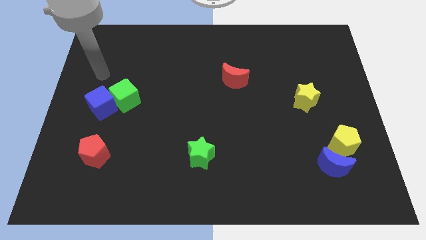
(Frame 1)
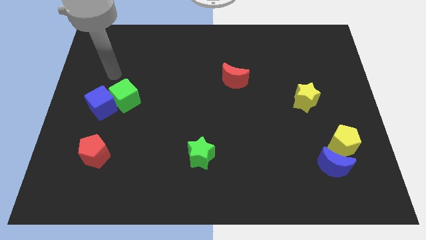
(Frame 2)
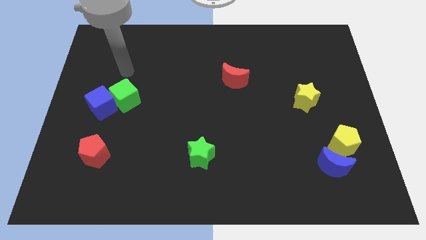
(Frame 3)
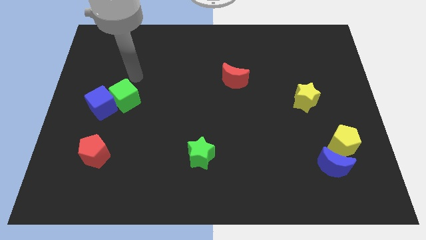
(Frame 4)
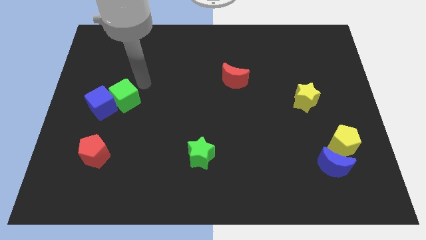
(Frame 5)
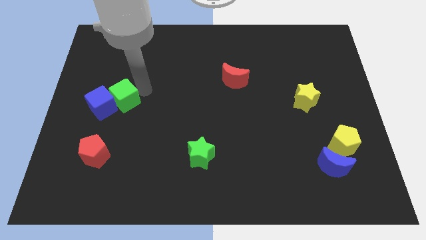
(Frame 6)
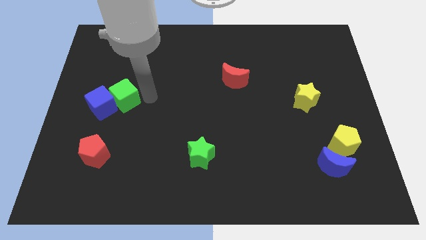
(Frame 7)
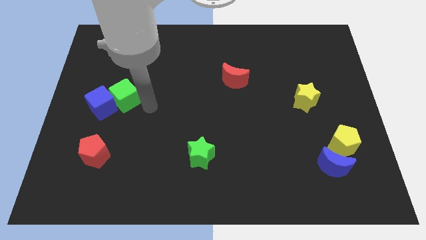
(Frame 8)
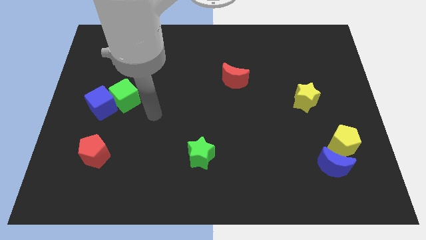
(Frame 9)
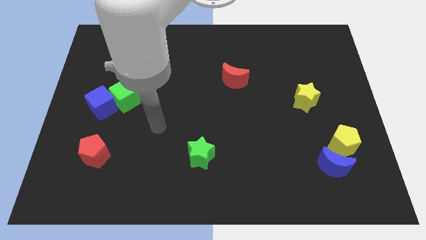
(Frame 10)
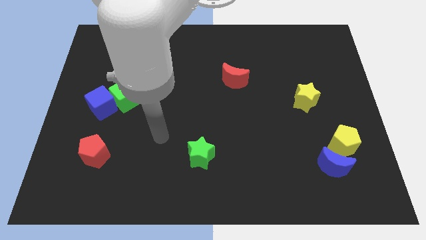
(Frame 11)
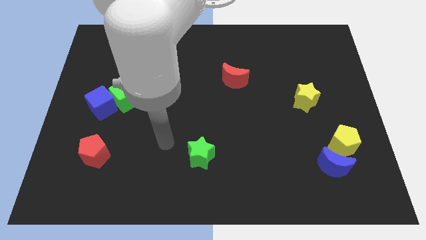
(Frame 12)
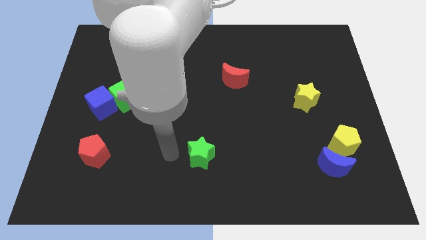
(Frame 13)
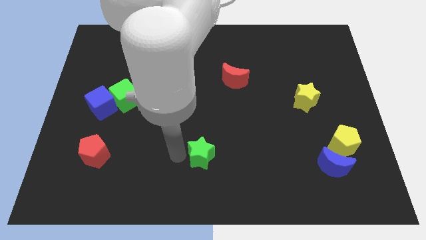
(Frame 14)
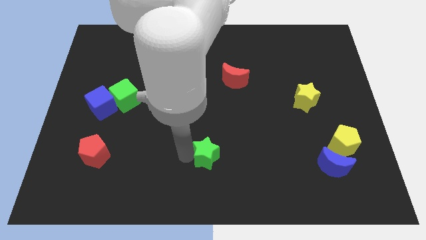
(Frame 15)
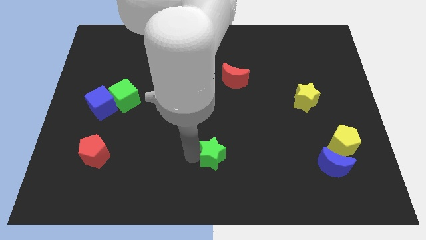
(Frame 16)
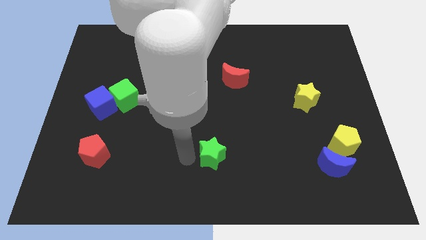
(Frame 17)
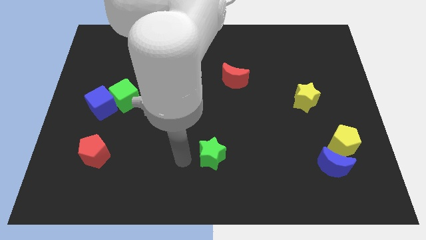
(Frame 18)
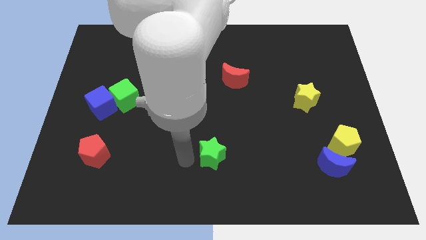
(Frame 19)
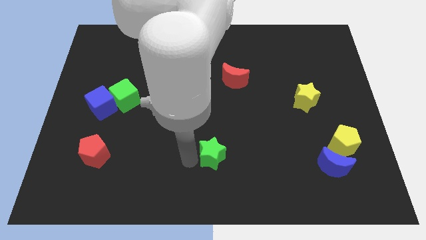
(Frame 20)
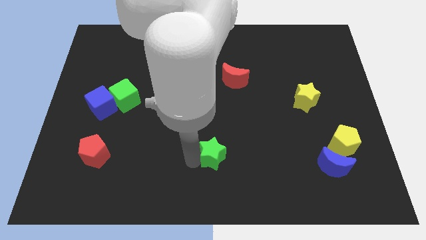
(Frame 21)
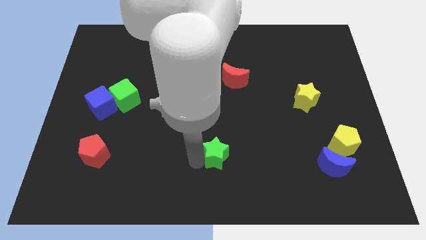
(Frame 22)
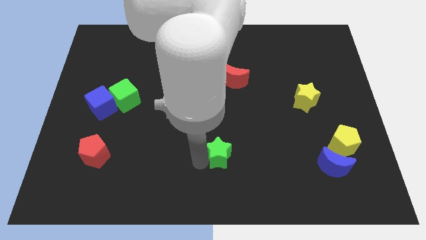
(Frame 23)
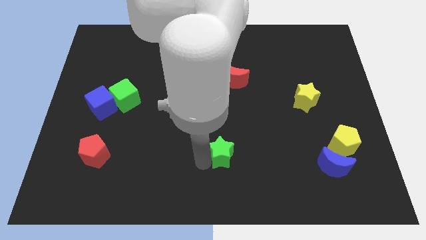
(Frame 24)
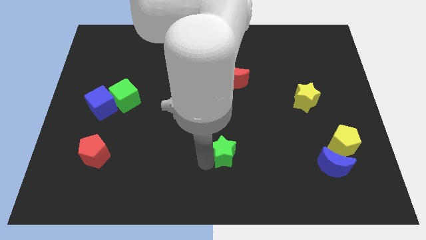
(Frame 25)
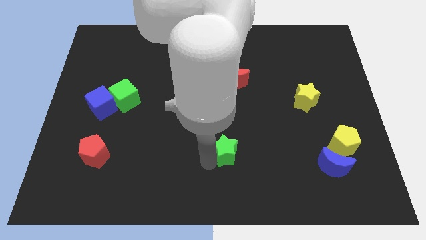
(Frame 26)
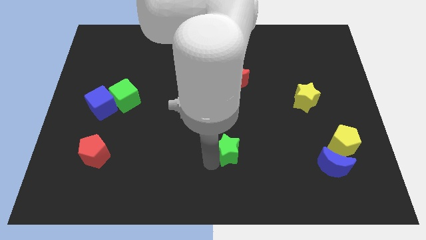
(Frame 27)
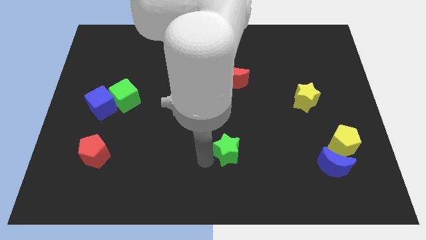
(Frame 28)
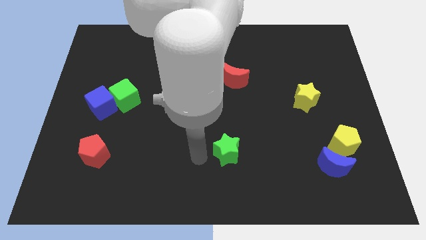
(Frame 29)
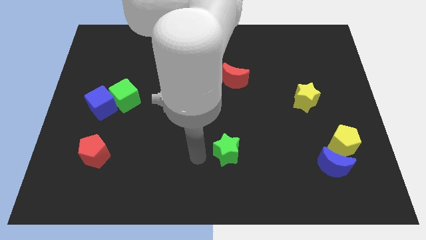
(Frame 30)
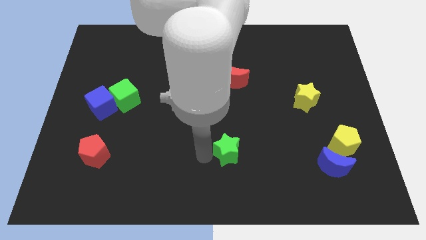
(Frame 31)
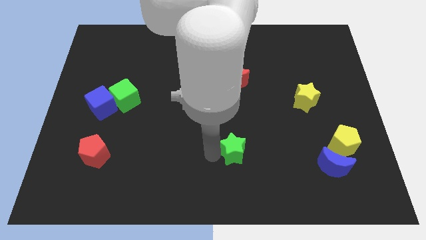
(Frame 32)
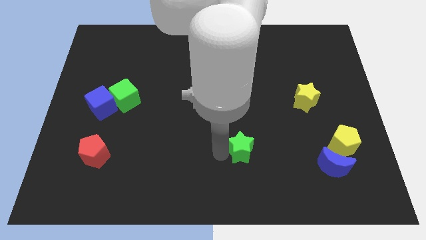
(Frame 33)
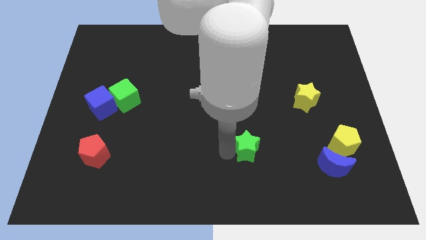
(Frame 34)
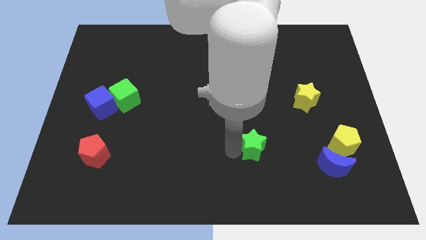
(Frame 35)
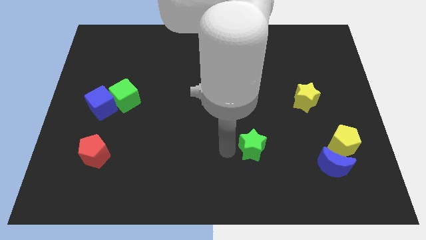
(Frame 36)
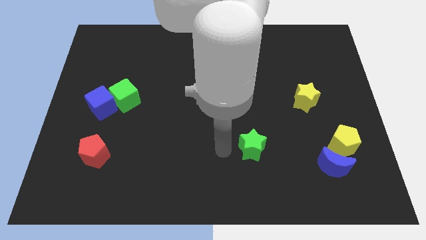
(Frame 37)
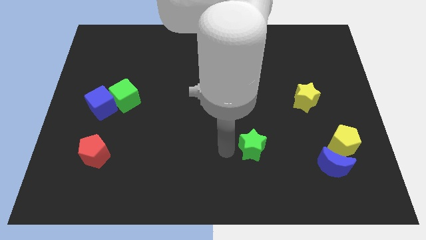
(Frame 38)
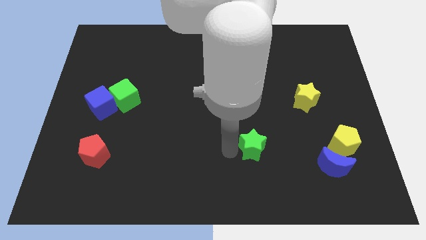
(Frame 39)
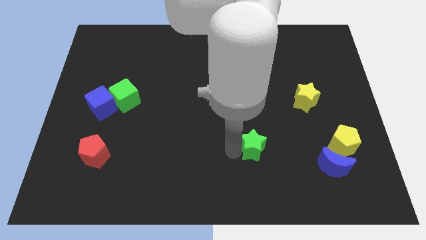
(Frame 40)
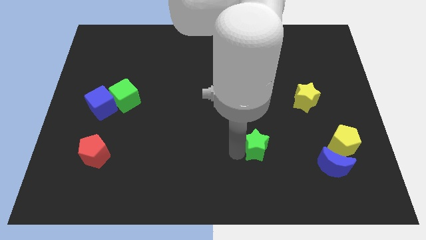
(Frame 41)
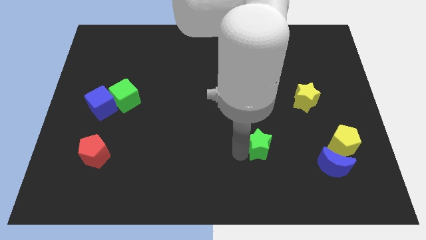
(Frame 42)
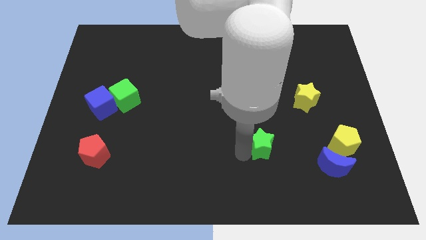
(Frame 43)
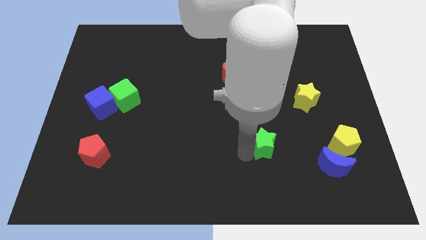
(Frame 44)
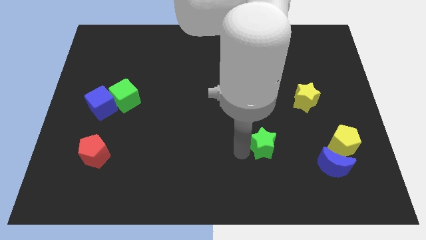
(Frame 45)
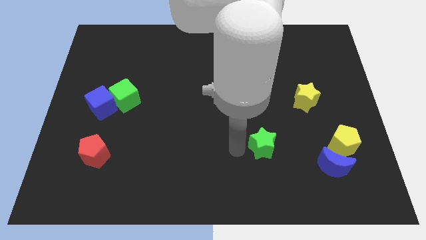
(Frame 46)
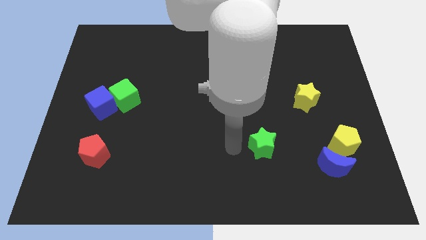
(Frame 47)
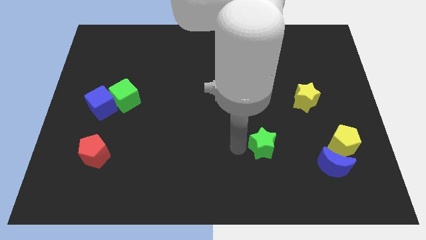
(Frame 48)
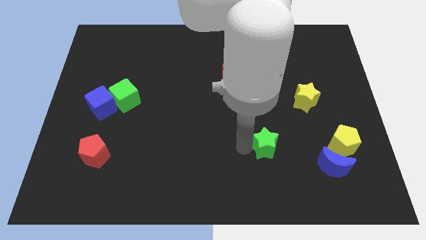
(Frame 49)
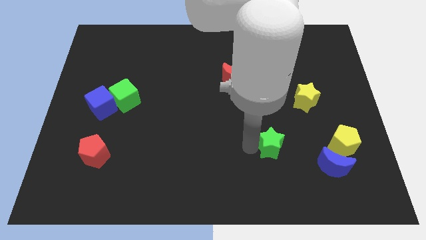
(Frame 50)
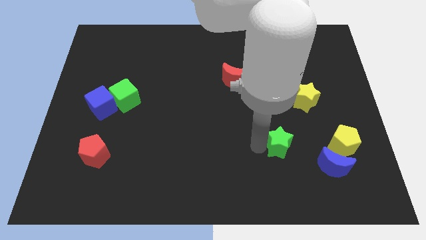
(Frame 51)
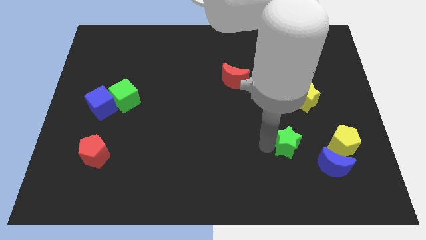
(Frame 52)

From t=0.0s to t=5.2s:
slide the green star to the top left of the blue moon

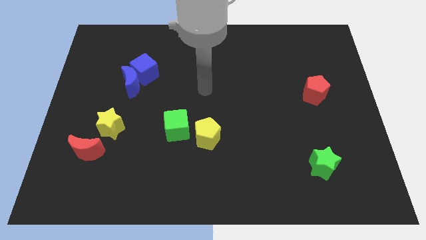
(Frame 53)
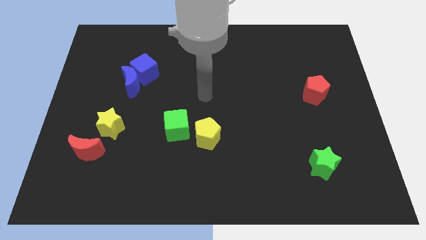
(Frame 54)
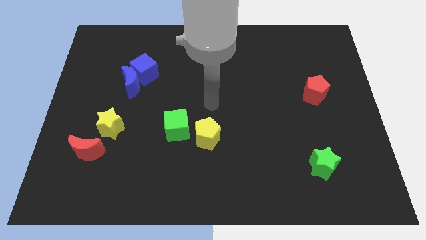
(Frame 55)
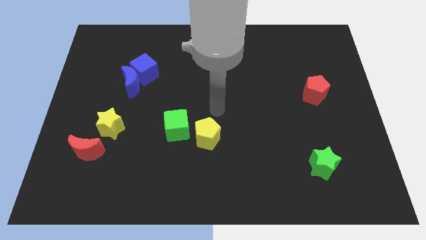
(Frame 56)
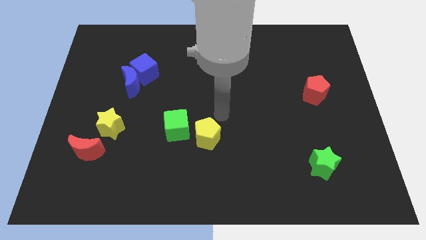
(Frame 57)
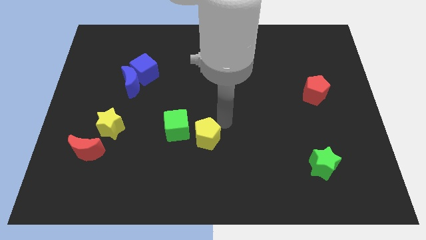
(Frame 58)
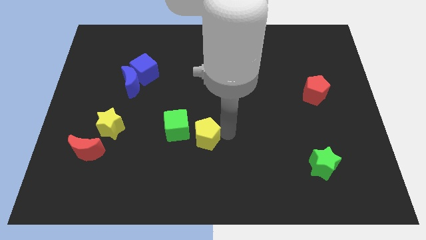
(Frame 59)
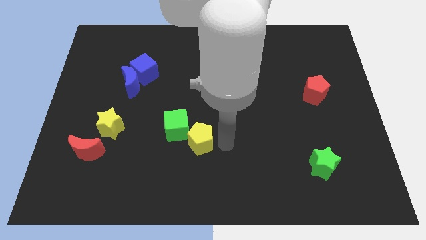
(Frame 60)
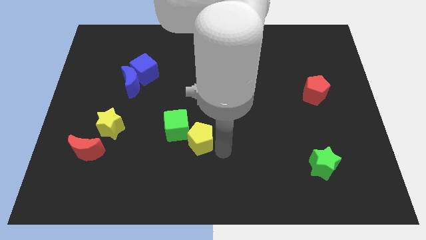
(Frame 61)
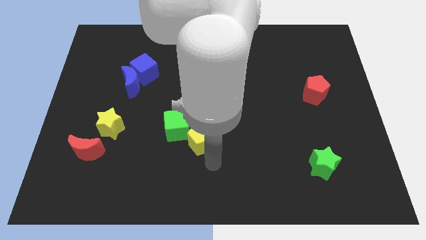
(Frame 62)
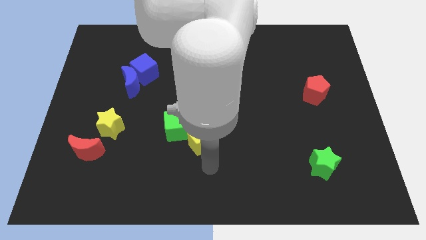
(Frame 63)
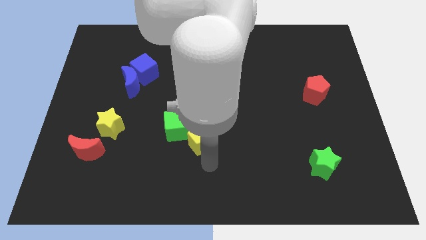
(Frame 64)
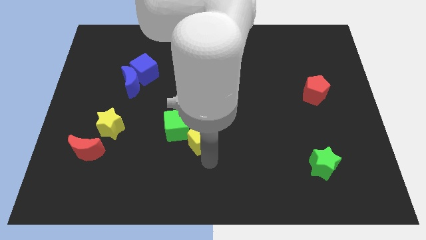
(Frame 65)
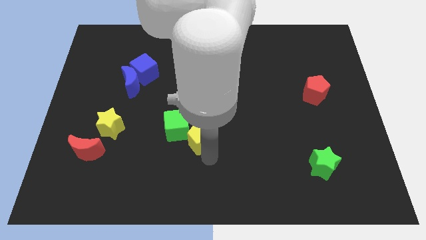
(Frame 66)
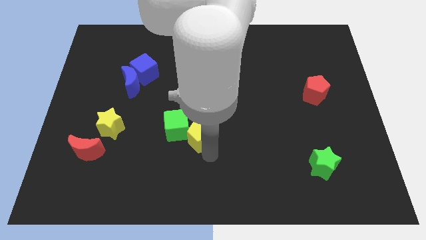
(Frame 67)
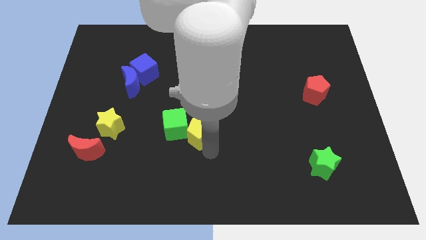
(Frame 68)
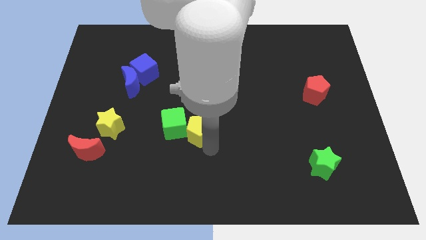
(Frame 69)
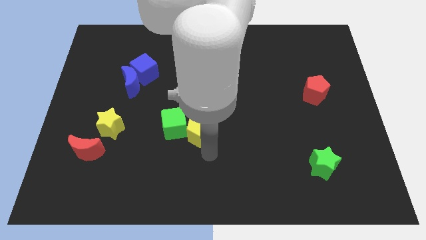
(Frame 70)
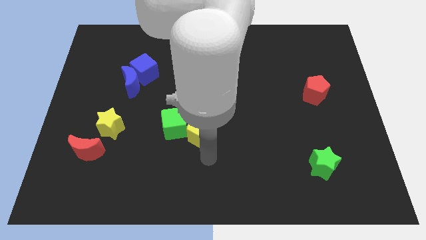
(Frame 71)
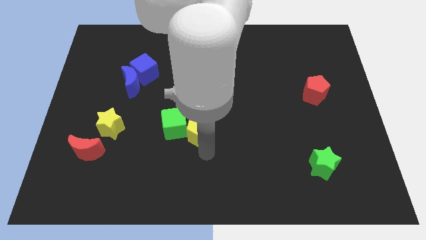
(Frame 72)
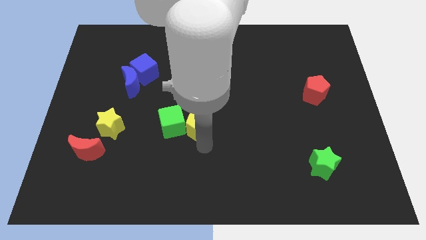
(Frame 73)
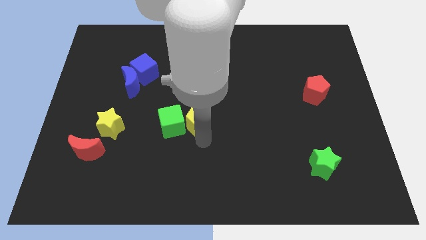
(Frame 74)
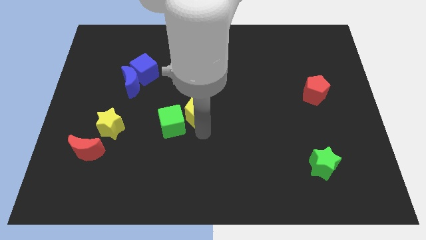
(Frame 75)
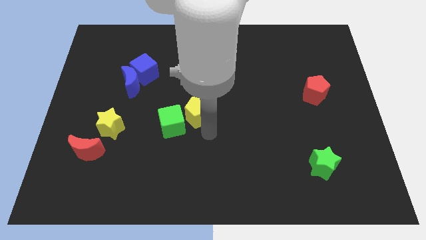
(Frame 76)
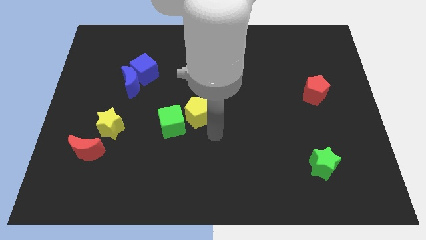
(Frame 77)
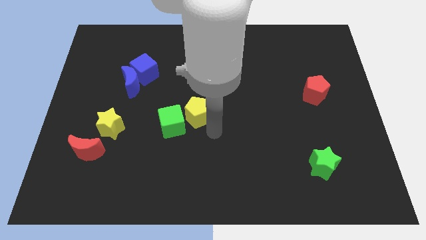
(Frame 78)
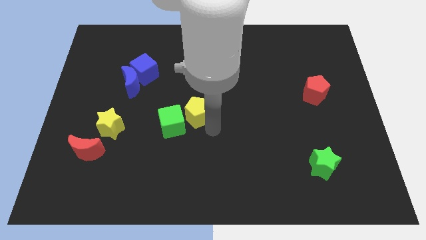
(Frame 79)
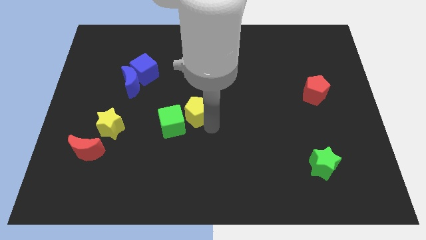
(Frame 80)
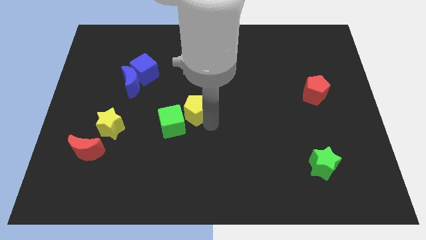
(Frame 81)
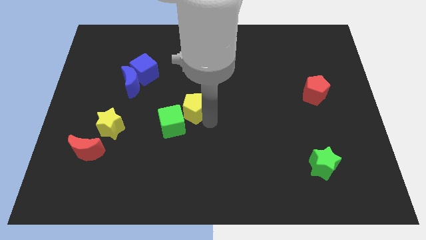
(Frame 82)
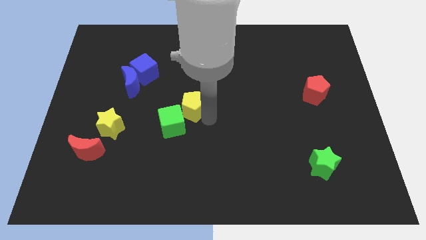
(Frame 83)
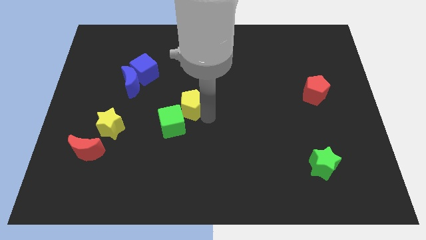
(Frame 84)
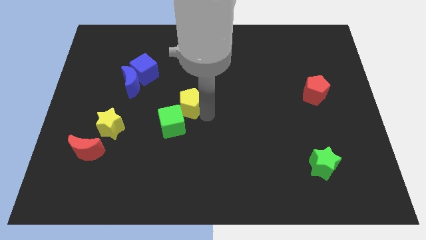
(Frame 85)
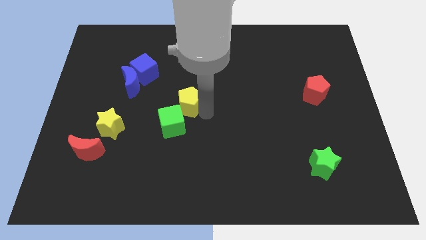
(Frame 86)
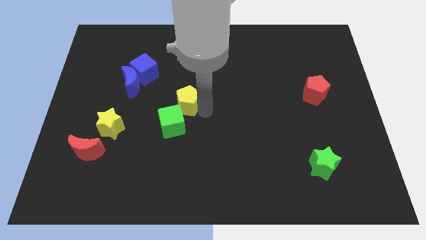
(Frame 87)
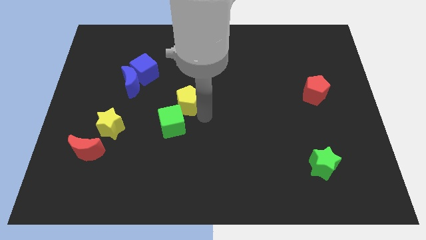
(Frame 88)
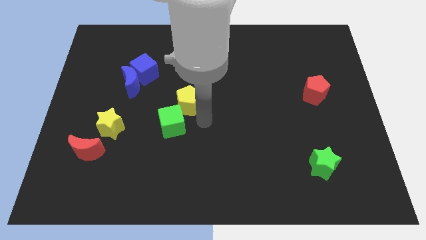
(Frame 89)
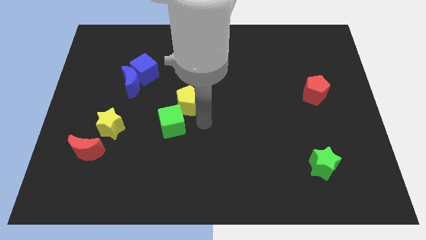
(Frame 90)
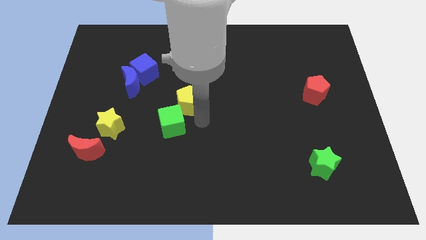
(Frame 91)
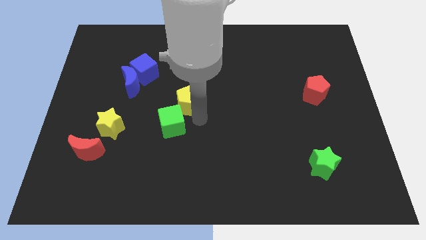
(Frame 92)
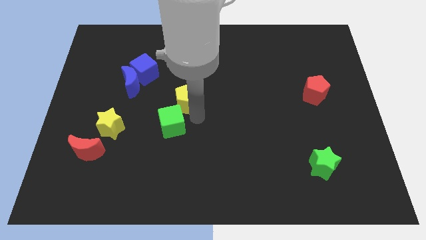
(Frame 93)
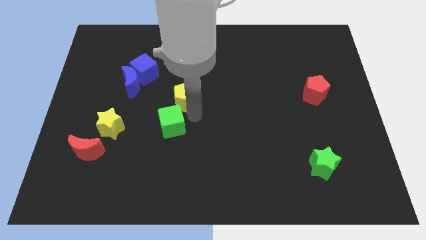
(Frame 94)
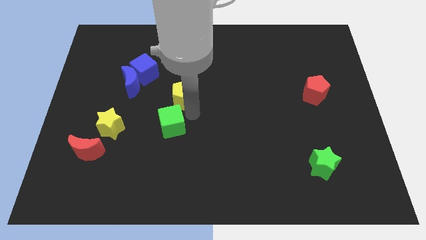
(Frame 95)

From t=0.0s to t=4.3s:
push the yellow pentagon to the right side of the blue moon
